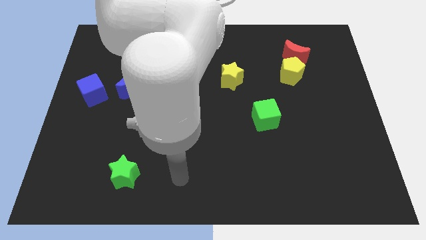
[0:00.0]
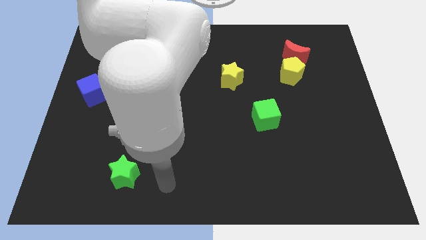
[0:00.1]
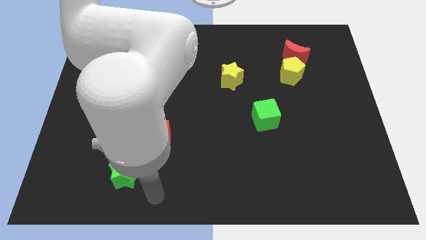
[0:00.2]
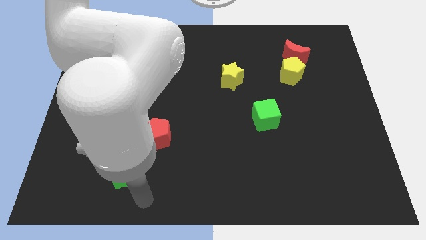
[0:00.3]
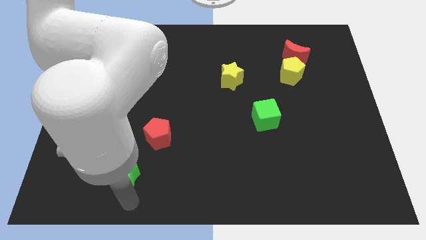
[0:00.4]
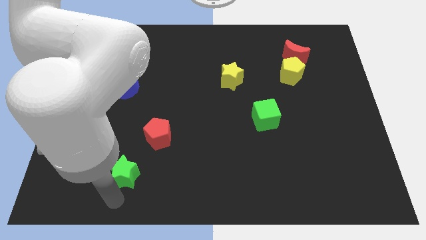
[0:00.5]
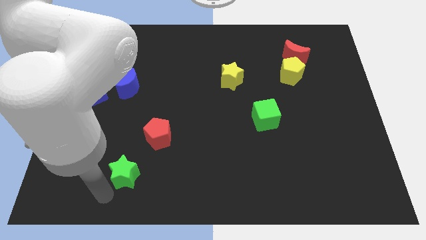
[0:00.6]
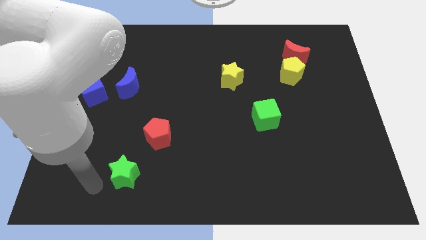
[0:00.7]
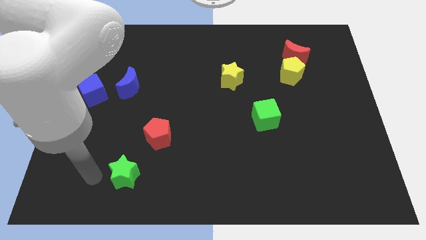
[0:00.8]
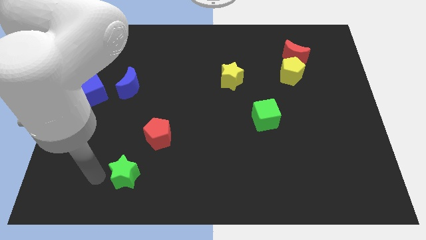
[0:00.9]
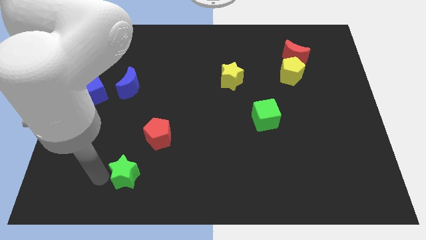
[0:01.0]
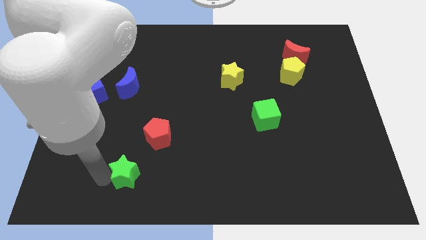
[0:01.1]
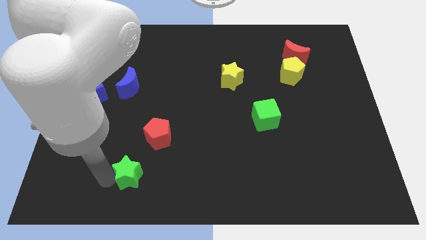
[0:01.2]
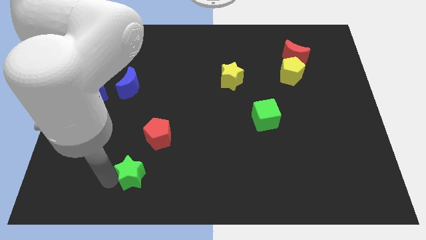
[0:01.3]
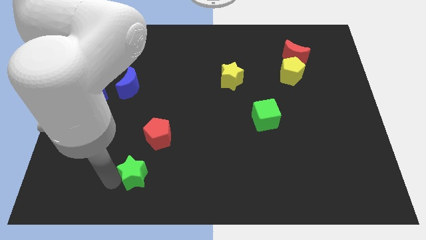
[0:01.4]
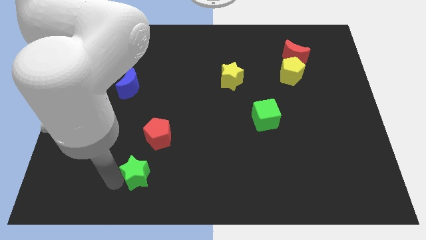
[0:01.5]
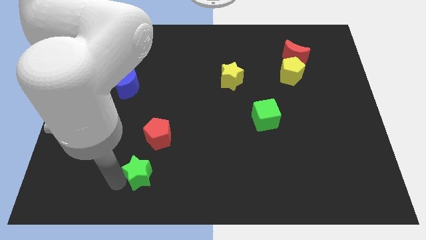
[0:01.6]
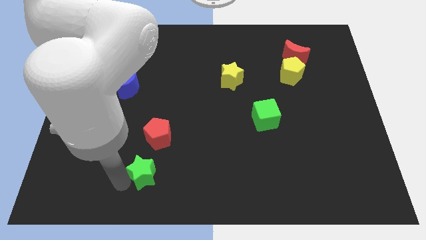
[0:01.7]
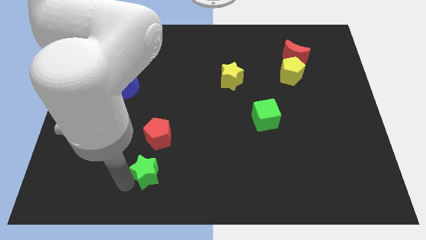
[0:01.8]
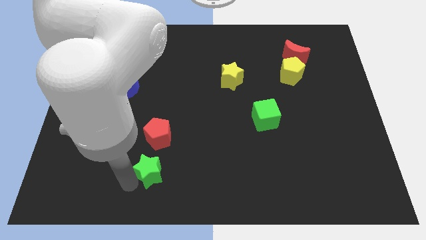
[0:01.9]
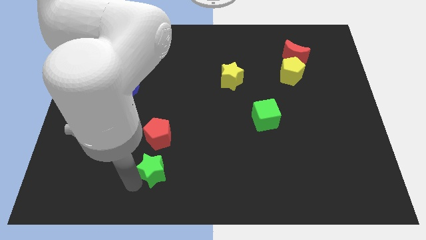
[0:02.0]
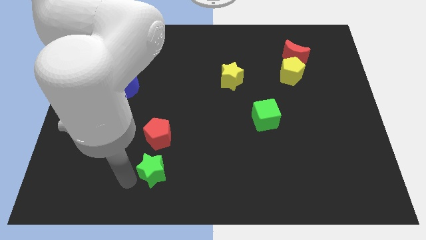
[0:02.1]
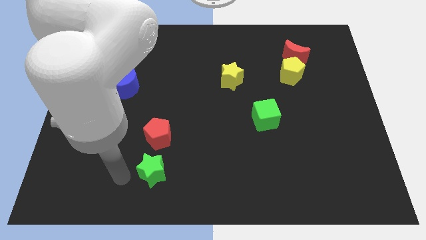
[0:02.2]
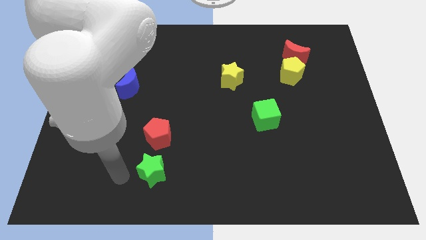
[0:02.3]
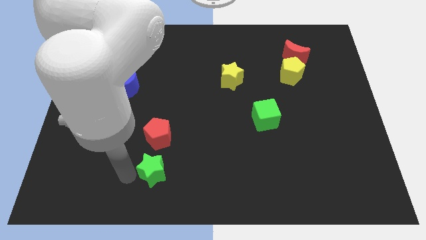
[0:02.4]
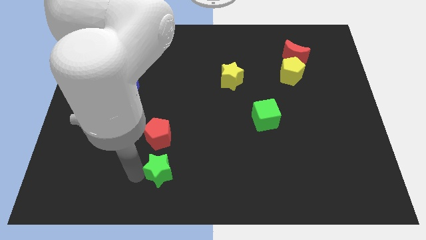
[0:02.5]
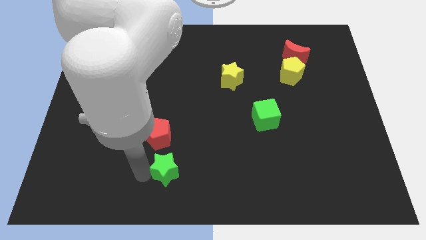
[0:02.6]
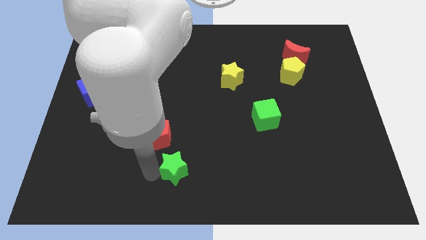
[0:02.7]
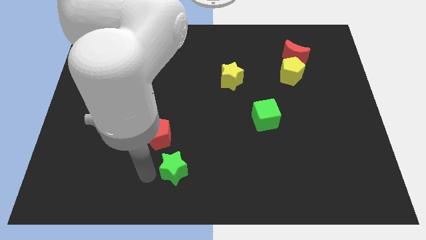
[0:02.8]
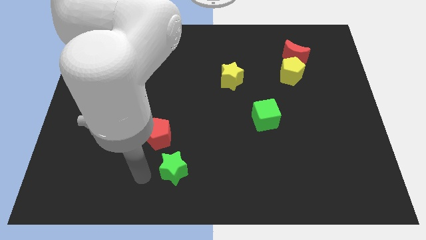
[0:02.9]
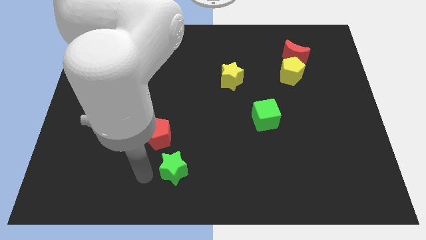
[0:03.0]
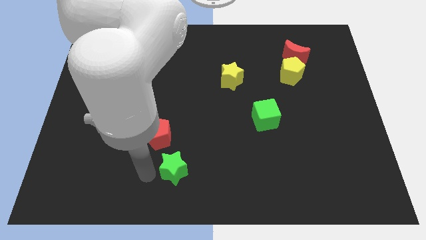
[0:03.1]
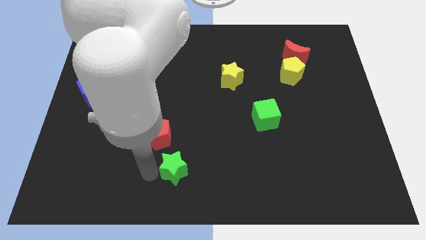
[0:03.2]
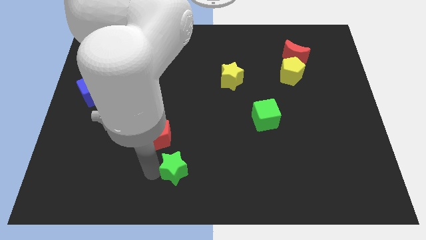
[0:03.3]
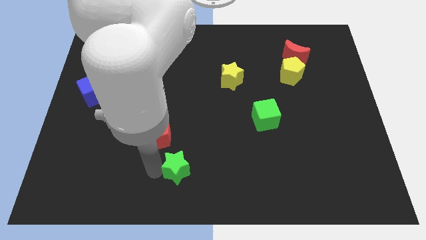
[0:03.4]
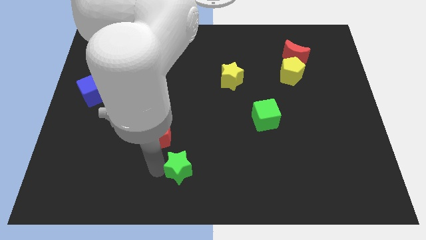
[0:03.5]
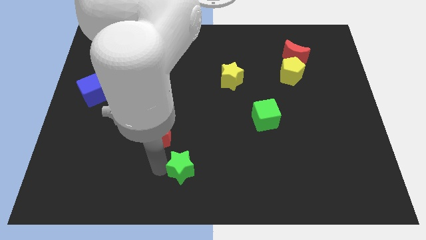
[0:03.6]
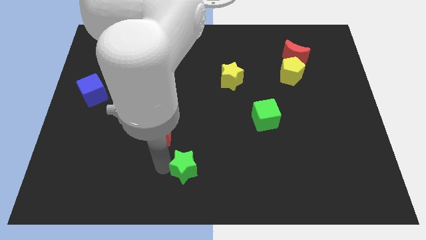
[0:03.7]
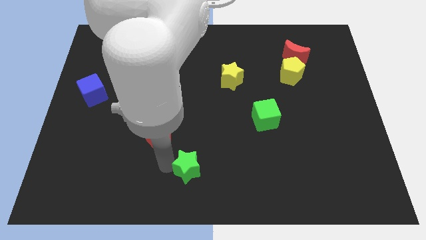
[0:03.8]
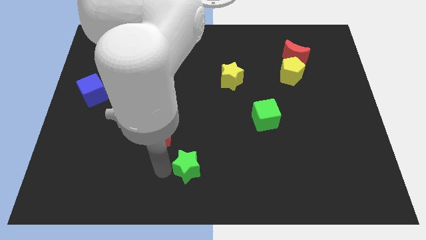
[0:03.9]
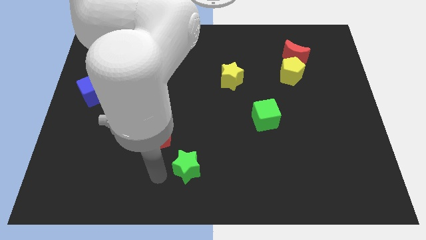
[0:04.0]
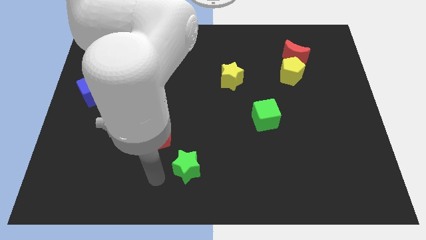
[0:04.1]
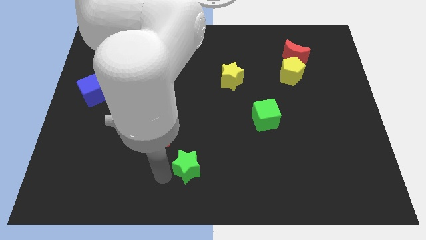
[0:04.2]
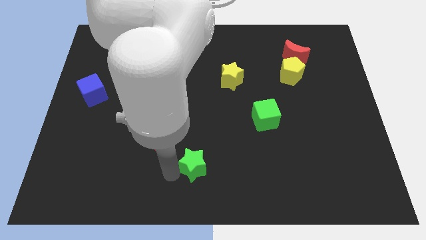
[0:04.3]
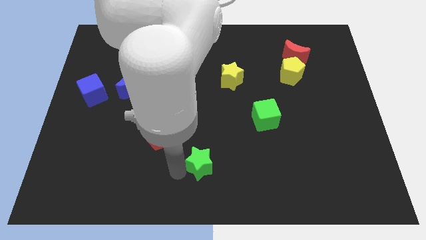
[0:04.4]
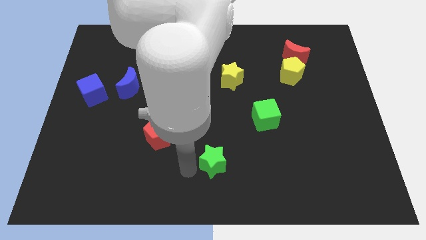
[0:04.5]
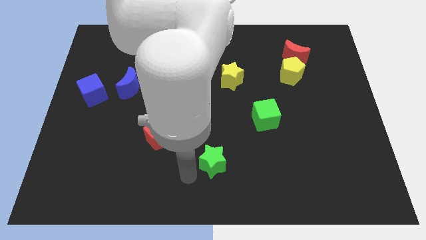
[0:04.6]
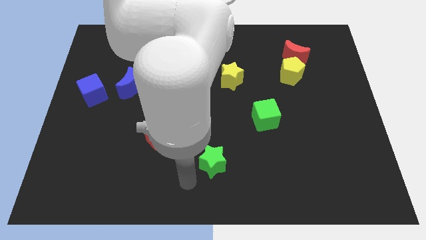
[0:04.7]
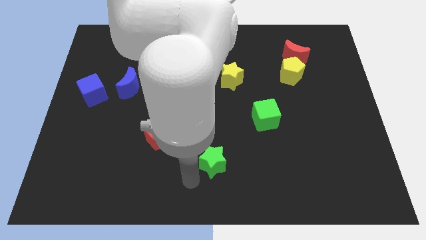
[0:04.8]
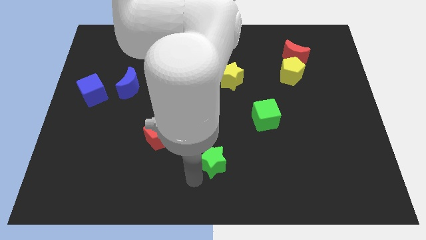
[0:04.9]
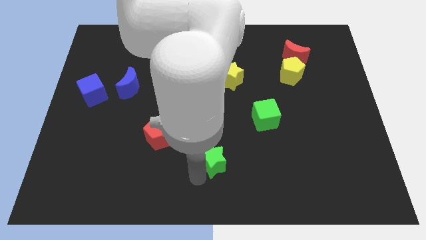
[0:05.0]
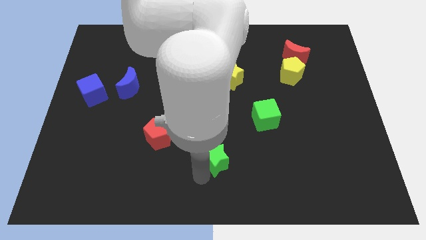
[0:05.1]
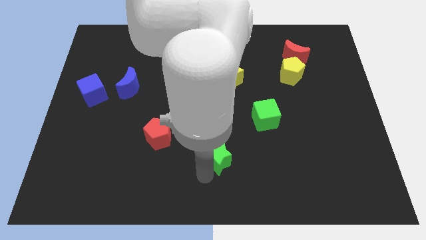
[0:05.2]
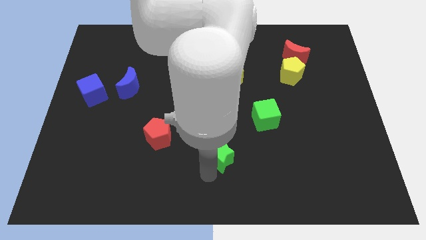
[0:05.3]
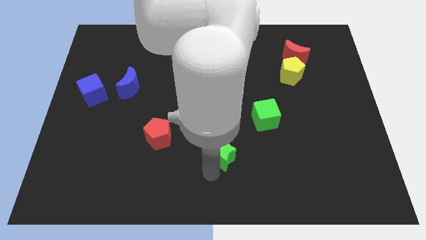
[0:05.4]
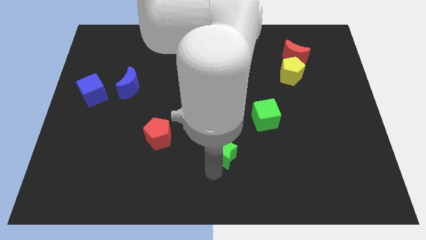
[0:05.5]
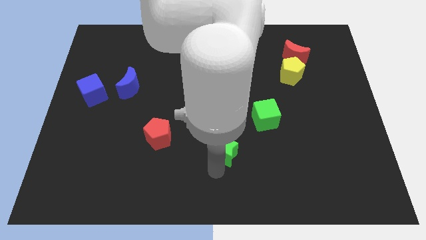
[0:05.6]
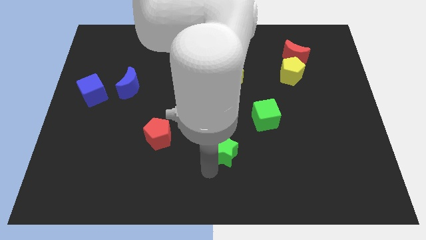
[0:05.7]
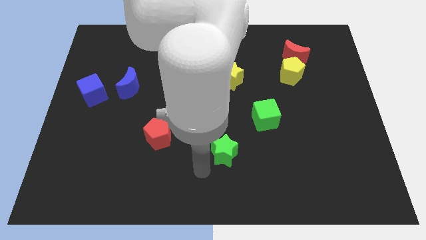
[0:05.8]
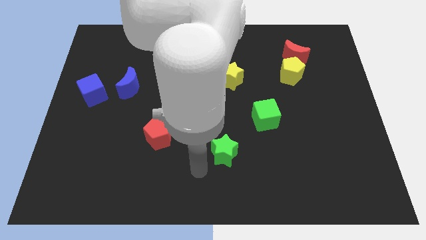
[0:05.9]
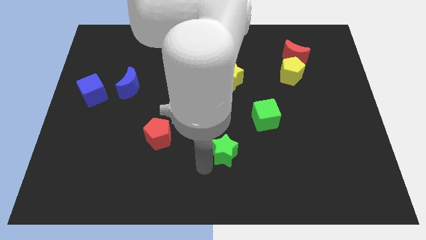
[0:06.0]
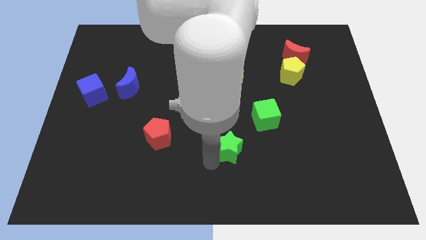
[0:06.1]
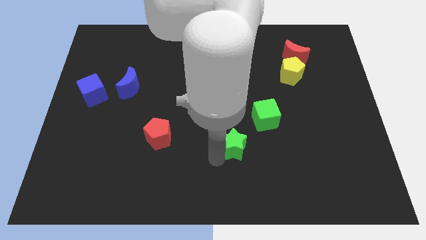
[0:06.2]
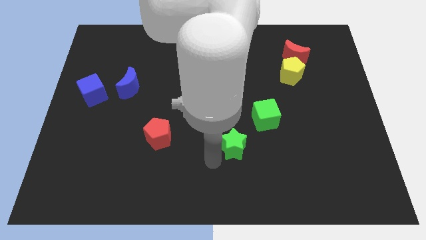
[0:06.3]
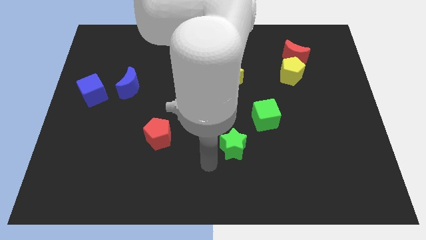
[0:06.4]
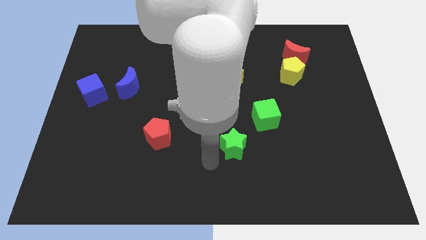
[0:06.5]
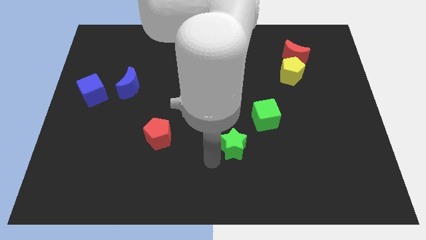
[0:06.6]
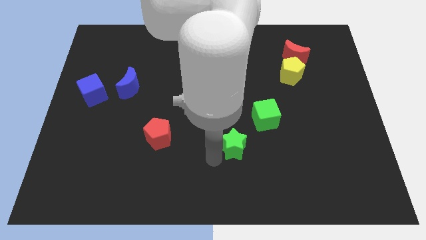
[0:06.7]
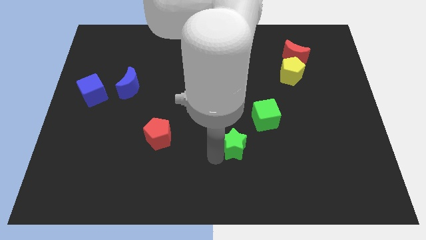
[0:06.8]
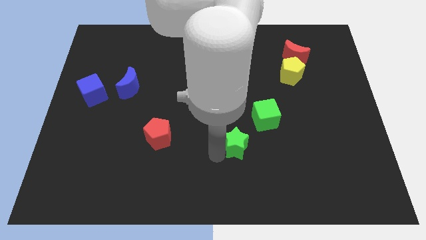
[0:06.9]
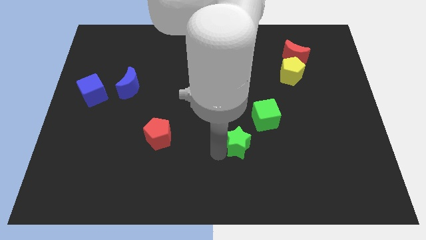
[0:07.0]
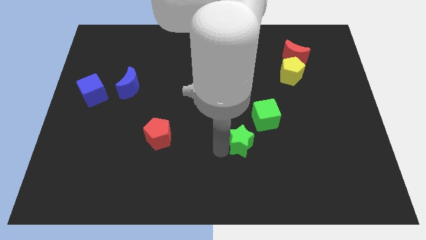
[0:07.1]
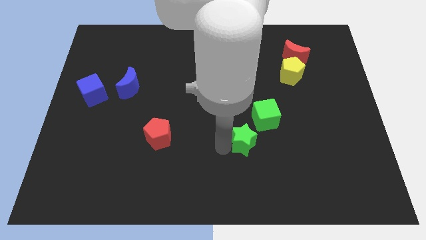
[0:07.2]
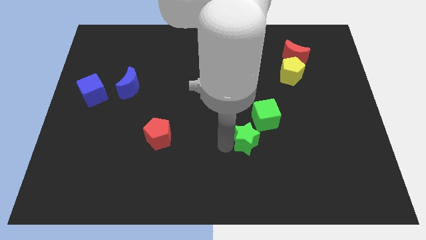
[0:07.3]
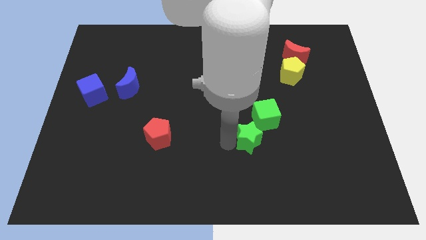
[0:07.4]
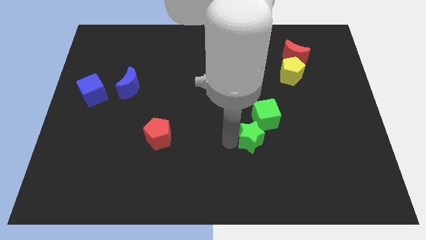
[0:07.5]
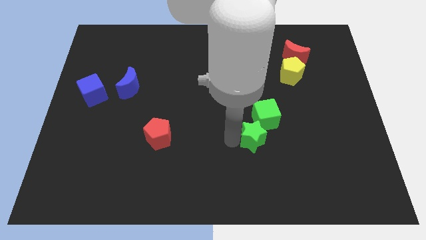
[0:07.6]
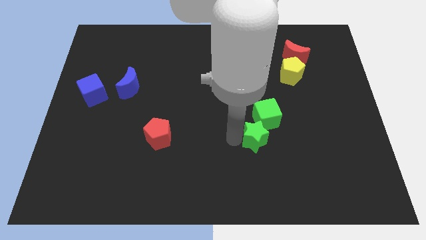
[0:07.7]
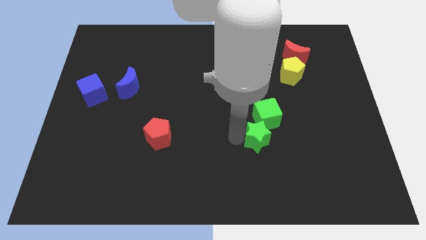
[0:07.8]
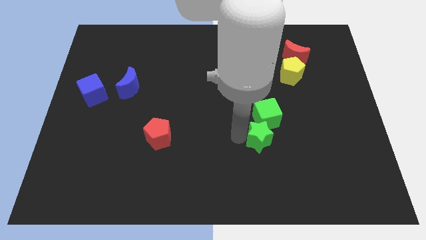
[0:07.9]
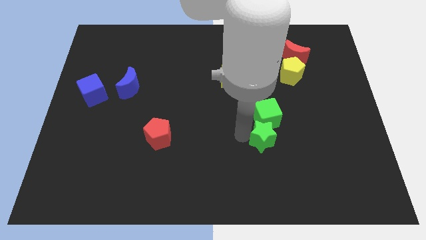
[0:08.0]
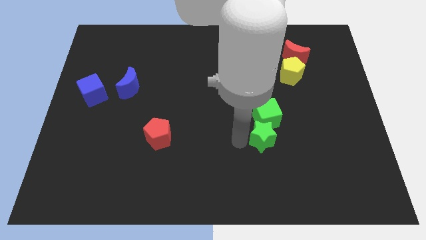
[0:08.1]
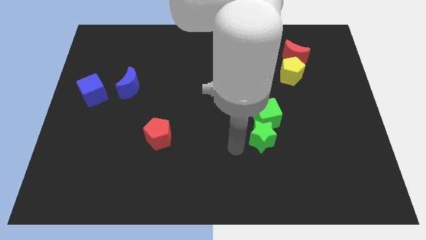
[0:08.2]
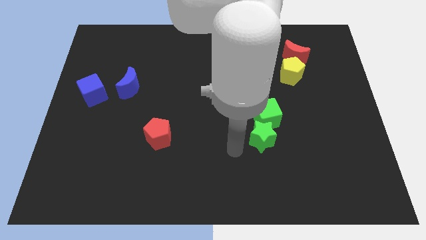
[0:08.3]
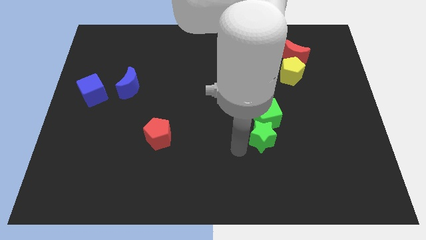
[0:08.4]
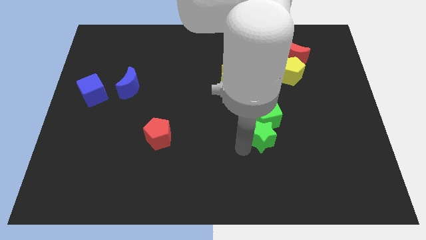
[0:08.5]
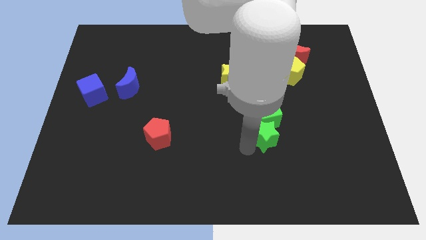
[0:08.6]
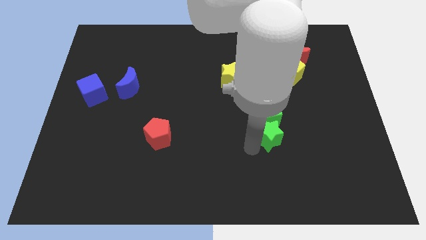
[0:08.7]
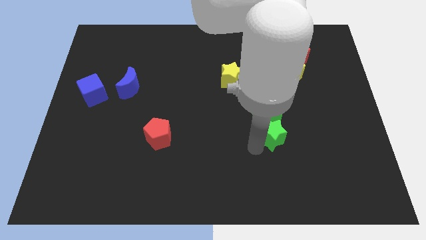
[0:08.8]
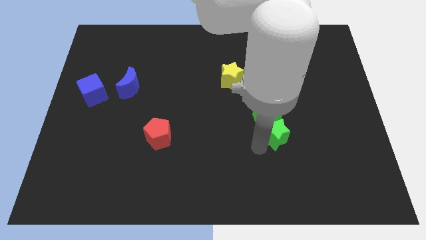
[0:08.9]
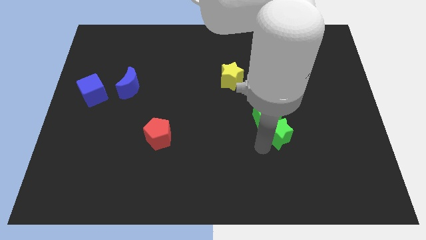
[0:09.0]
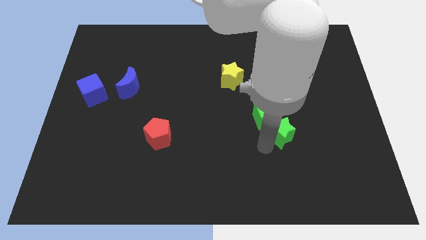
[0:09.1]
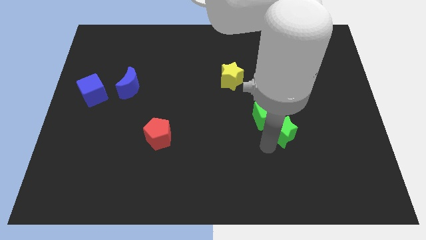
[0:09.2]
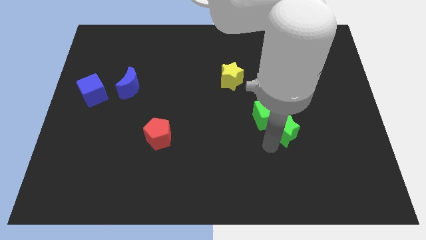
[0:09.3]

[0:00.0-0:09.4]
move the green star just right of the green cube
